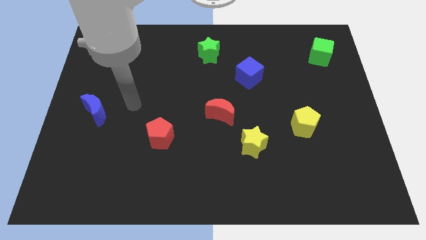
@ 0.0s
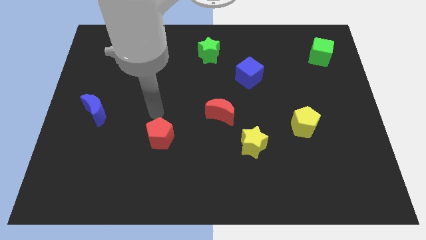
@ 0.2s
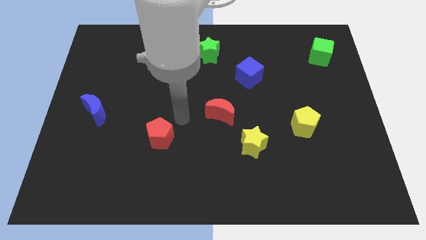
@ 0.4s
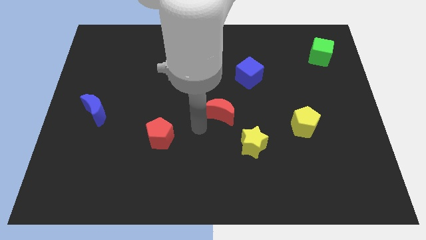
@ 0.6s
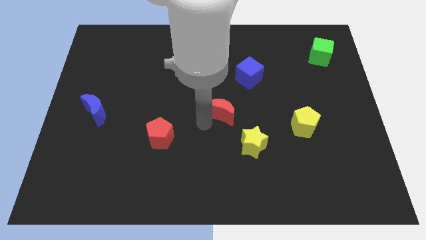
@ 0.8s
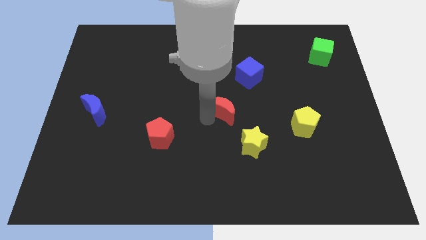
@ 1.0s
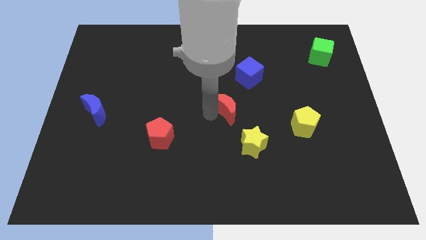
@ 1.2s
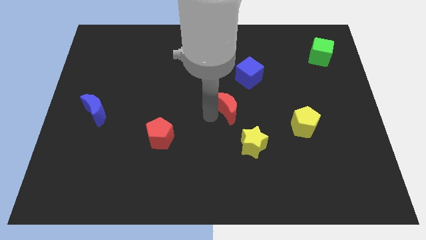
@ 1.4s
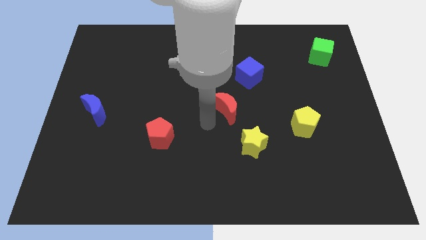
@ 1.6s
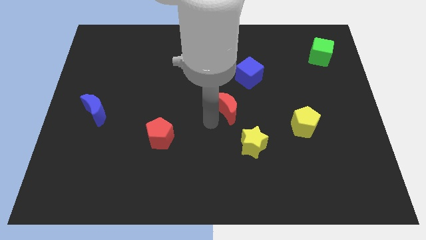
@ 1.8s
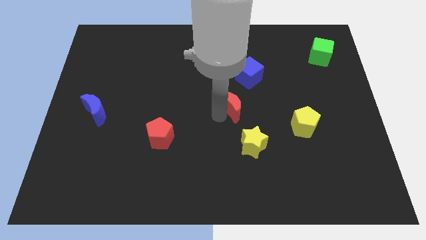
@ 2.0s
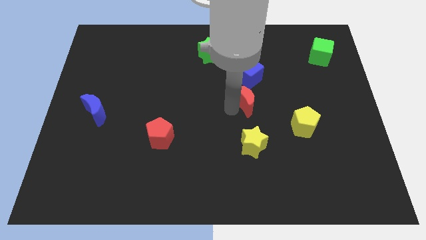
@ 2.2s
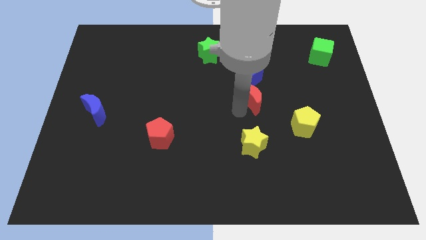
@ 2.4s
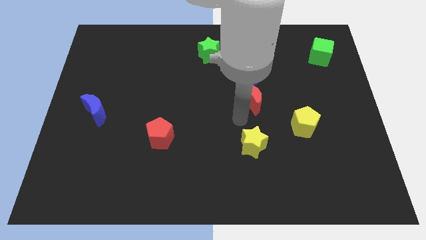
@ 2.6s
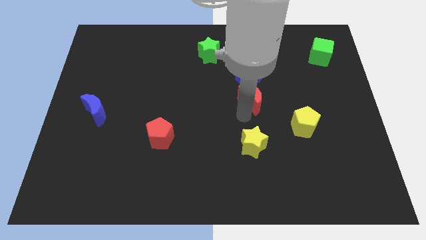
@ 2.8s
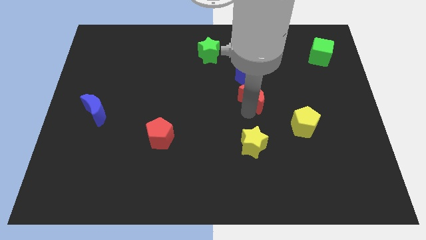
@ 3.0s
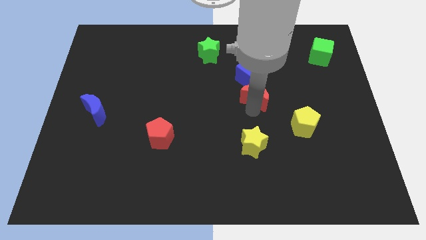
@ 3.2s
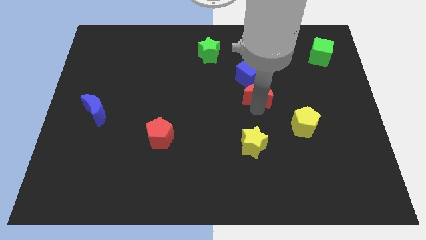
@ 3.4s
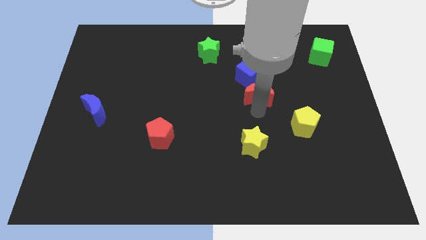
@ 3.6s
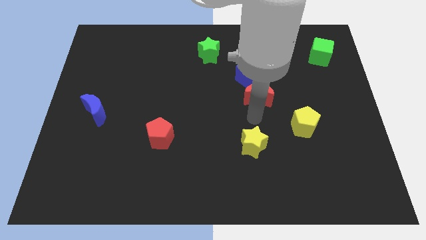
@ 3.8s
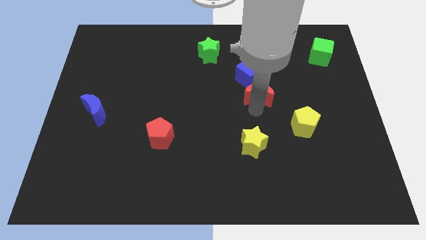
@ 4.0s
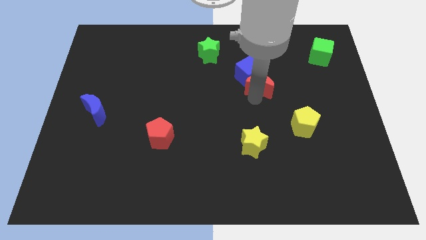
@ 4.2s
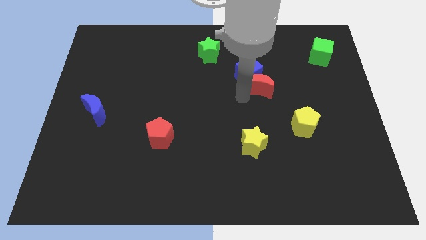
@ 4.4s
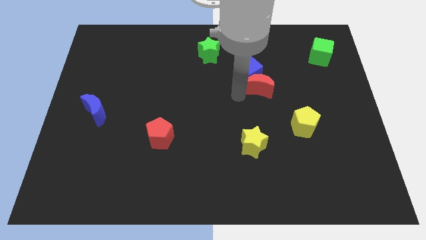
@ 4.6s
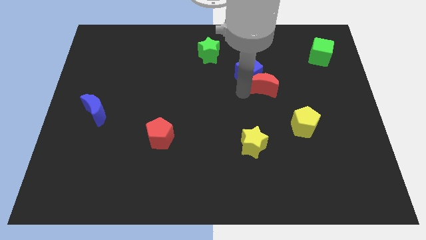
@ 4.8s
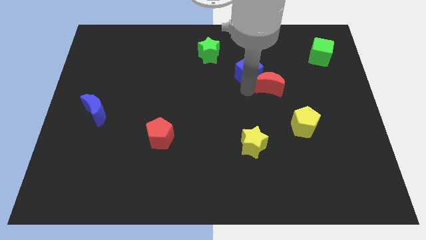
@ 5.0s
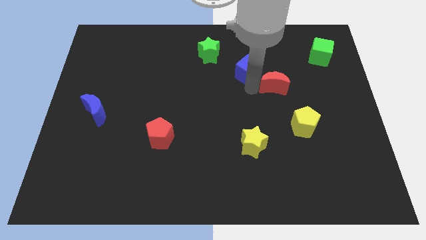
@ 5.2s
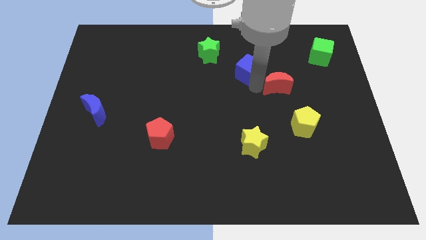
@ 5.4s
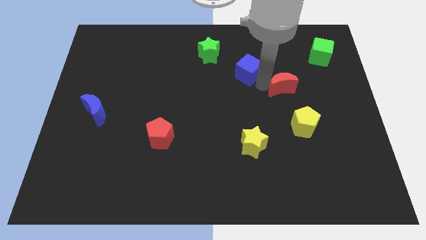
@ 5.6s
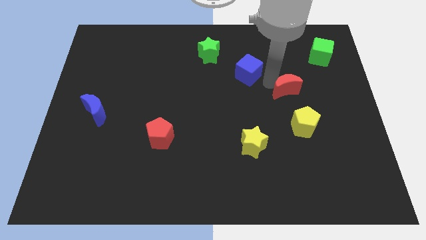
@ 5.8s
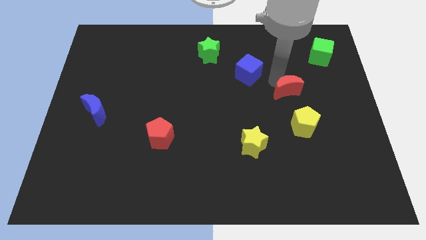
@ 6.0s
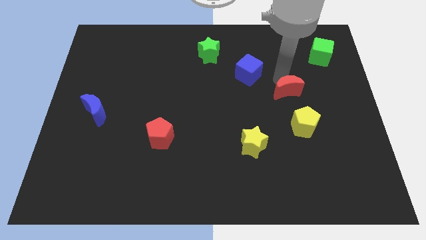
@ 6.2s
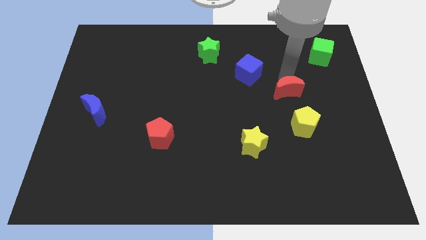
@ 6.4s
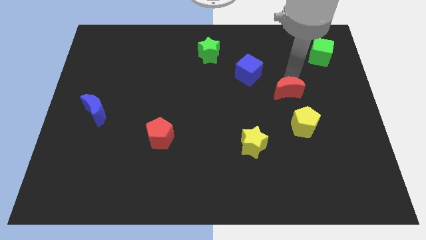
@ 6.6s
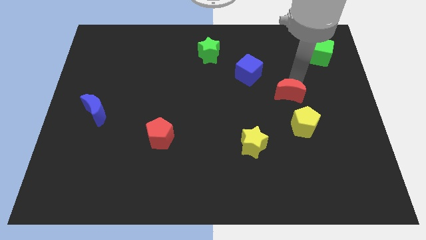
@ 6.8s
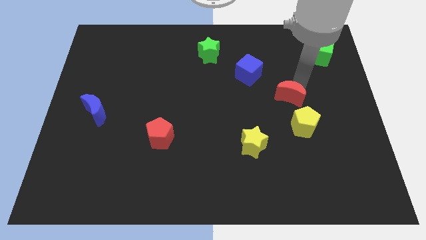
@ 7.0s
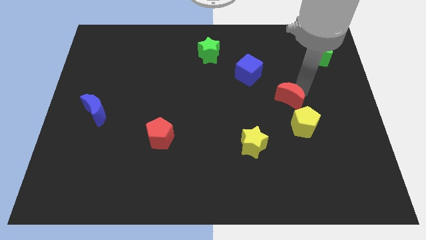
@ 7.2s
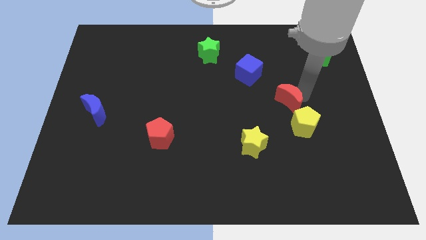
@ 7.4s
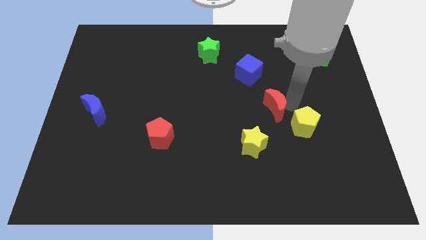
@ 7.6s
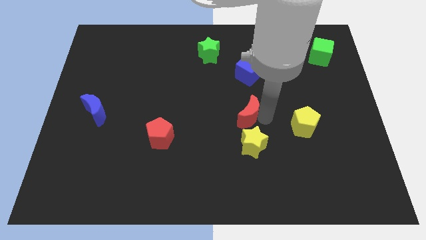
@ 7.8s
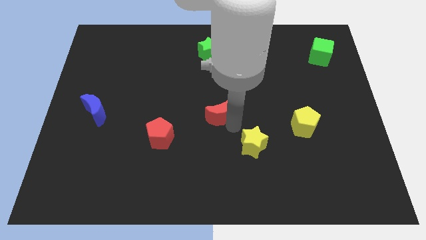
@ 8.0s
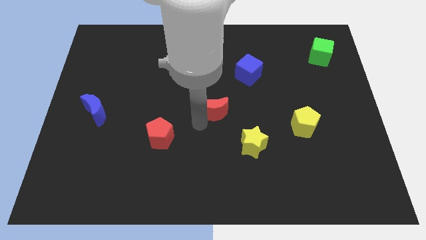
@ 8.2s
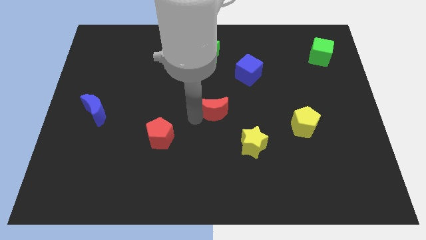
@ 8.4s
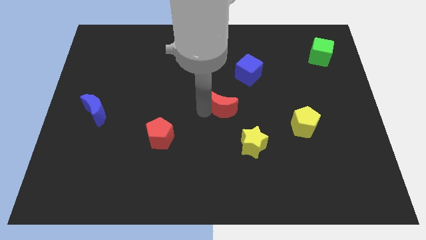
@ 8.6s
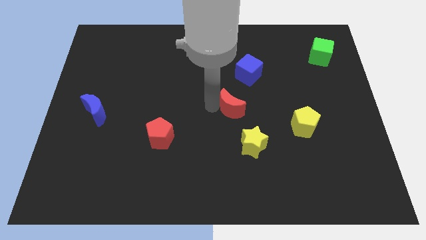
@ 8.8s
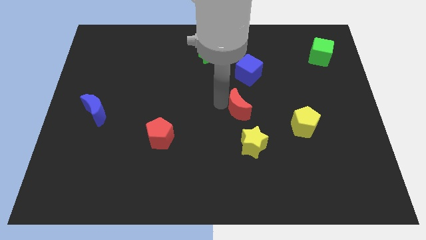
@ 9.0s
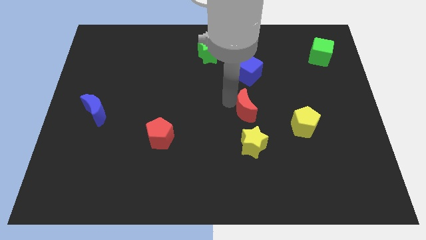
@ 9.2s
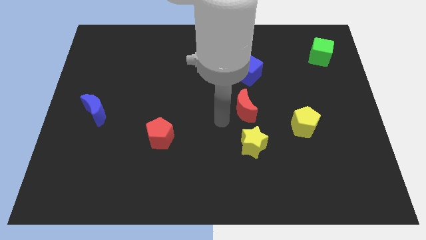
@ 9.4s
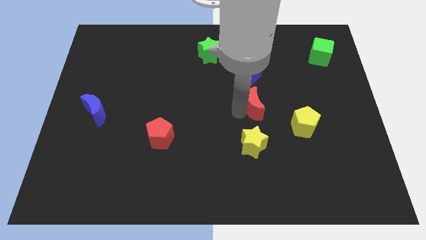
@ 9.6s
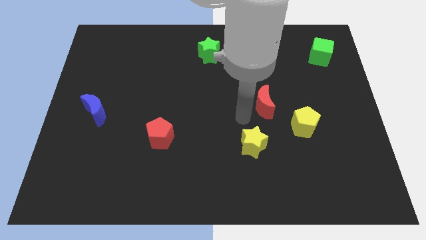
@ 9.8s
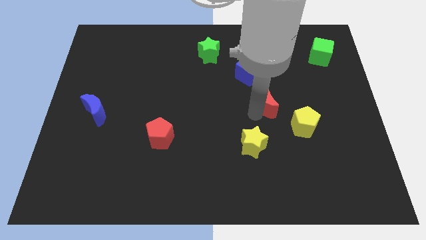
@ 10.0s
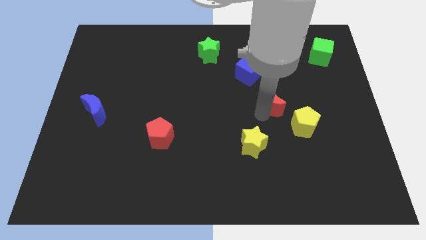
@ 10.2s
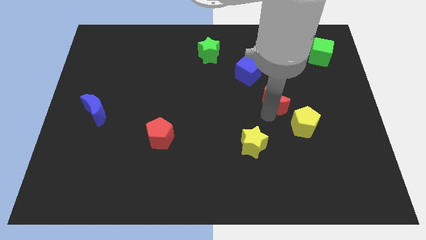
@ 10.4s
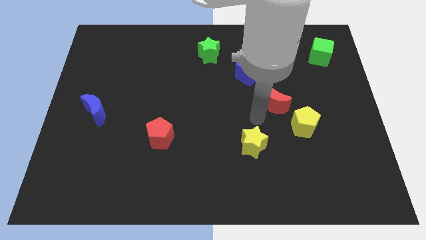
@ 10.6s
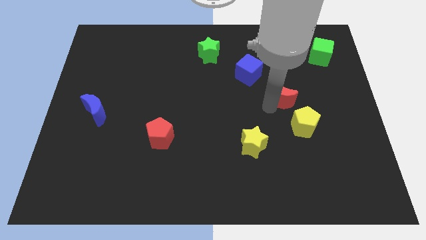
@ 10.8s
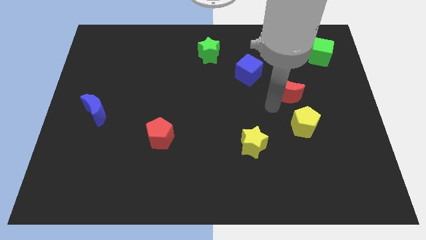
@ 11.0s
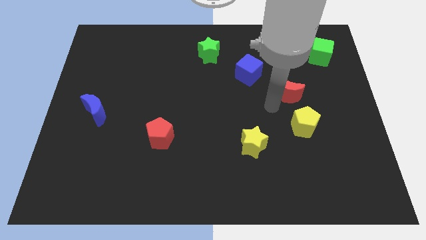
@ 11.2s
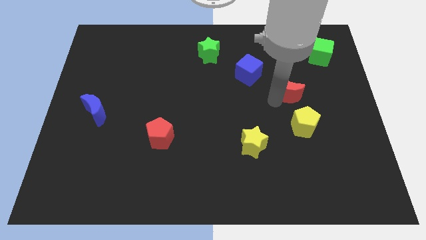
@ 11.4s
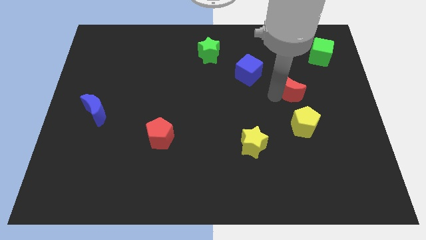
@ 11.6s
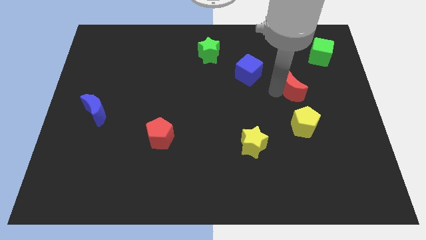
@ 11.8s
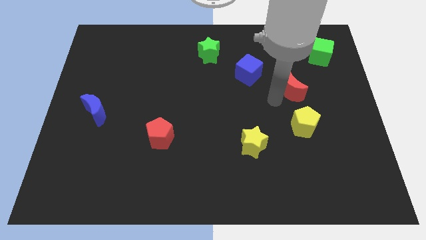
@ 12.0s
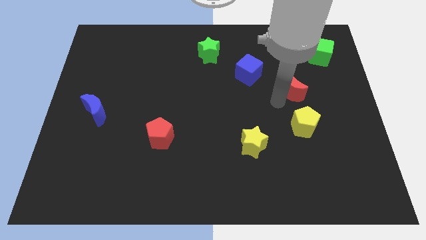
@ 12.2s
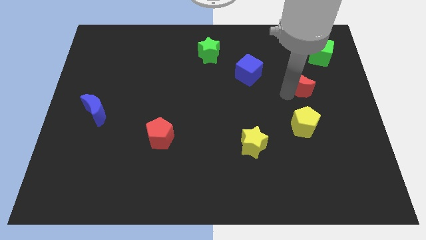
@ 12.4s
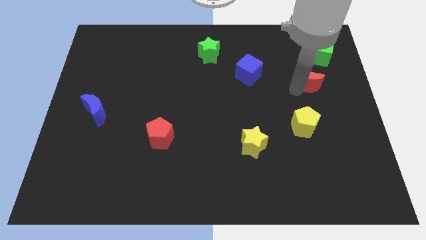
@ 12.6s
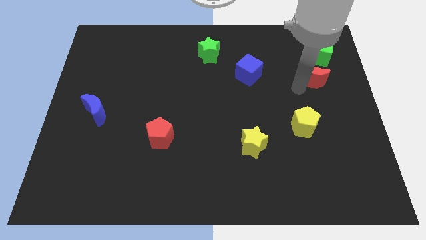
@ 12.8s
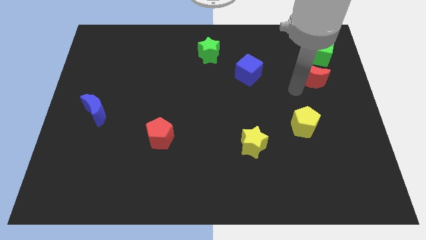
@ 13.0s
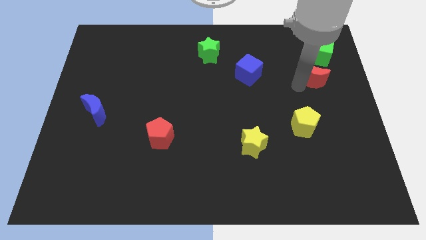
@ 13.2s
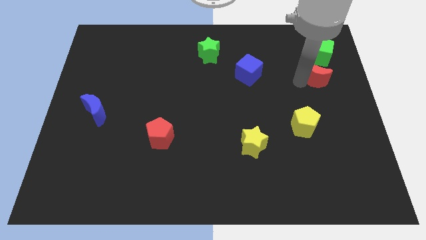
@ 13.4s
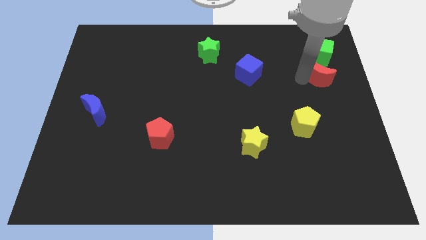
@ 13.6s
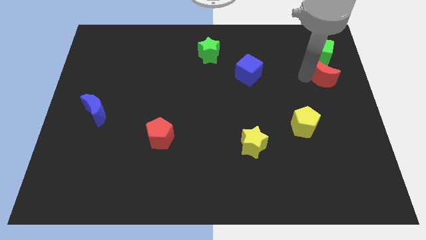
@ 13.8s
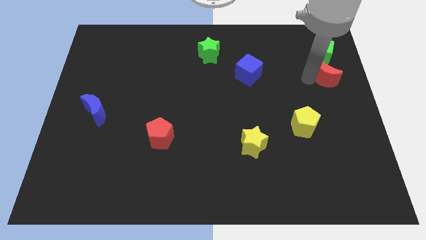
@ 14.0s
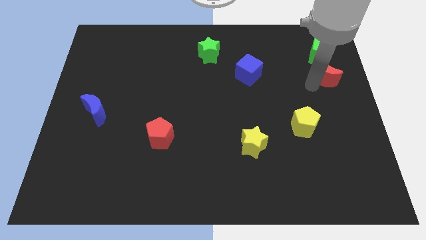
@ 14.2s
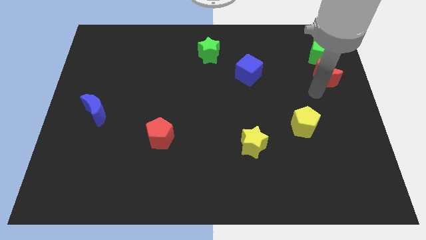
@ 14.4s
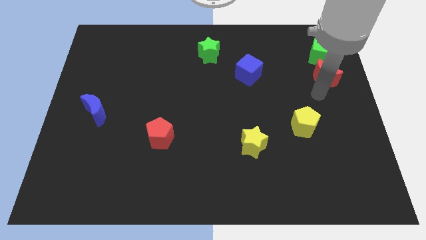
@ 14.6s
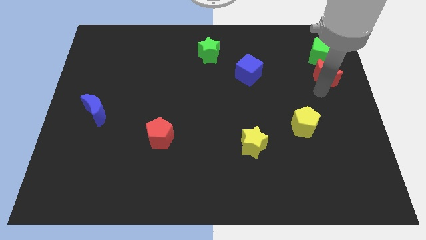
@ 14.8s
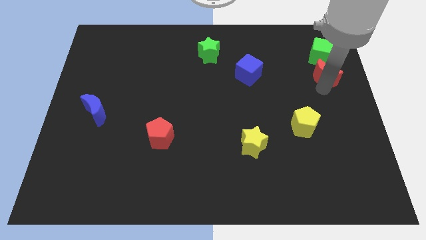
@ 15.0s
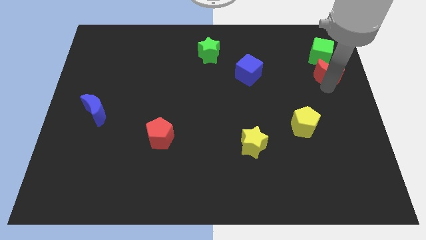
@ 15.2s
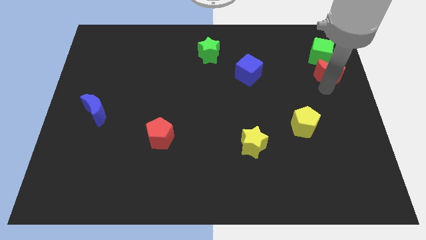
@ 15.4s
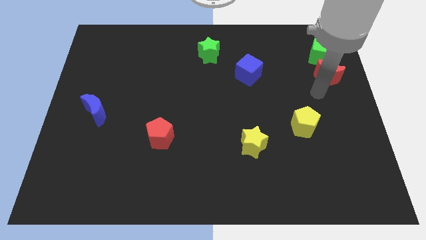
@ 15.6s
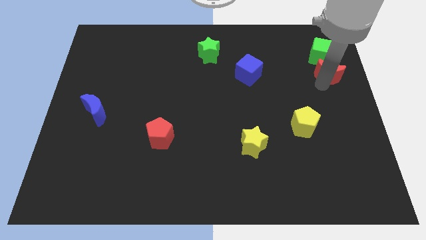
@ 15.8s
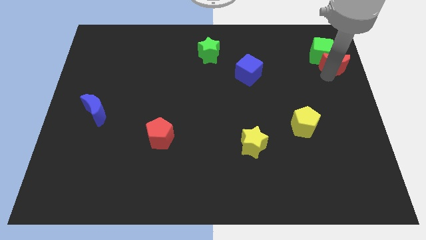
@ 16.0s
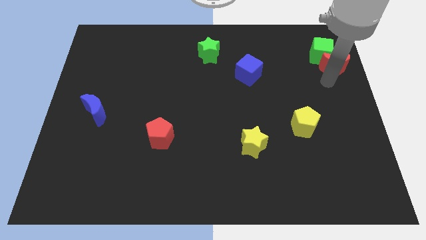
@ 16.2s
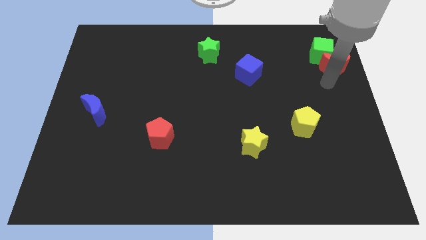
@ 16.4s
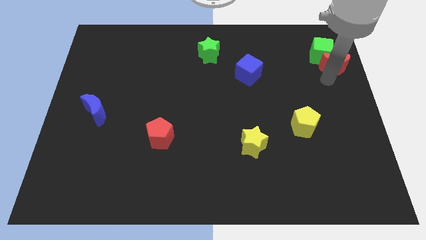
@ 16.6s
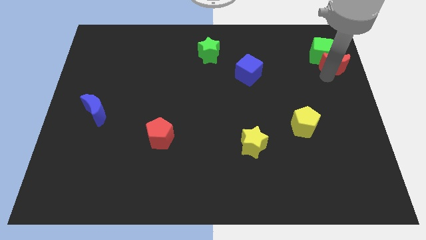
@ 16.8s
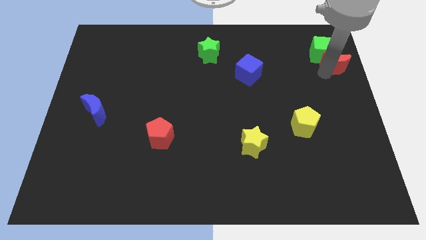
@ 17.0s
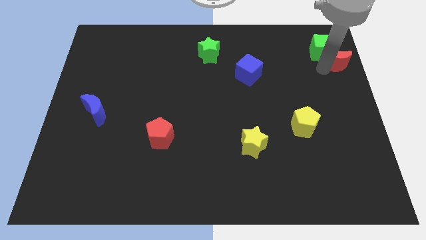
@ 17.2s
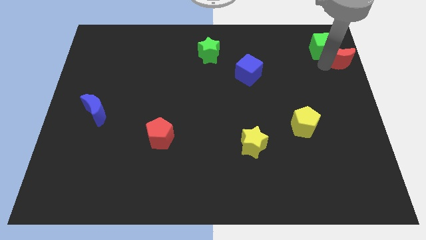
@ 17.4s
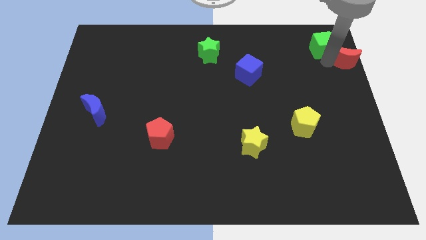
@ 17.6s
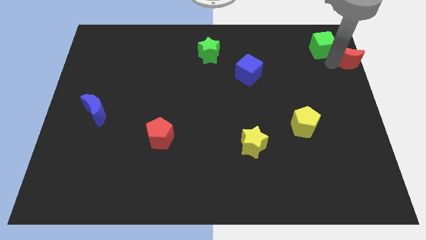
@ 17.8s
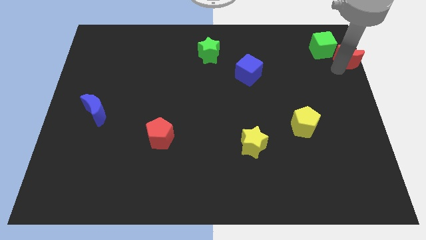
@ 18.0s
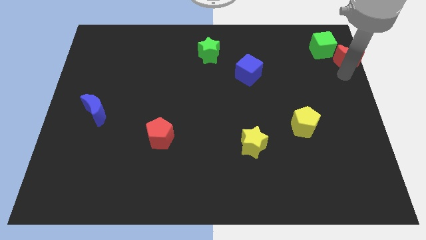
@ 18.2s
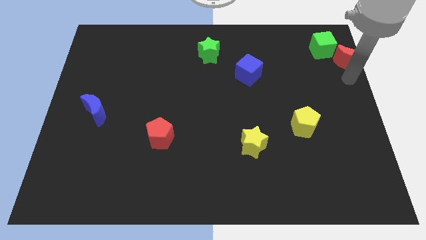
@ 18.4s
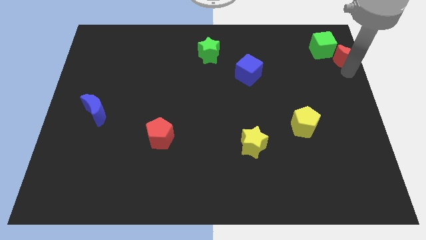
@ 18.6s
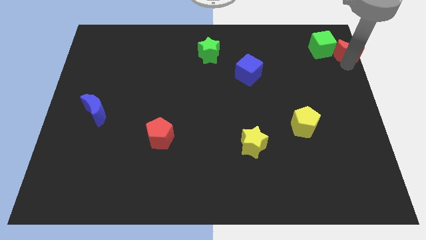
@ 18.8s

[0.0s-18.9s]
put the red moon to the top right corner
